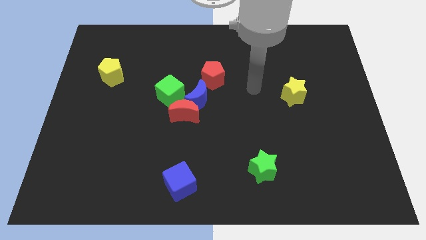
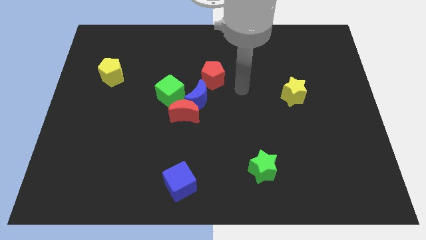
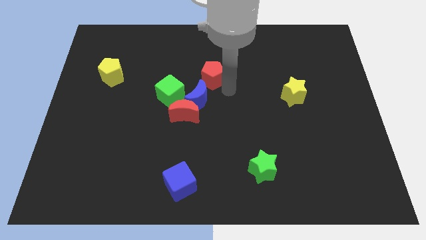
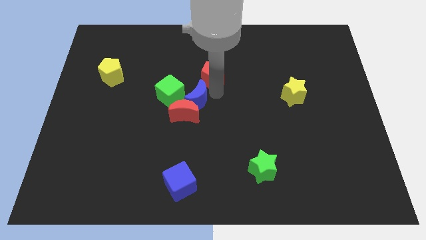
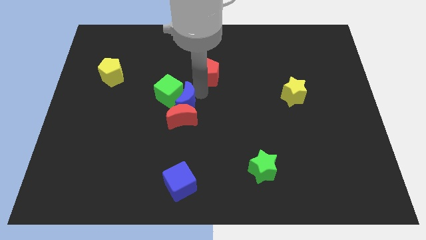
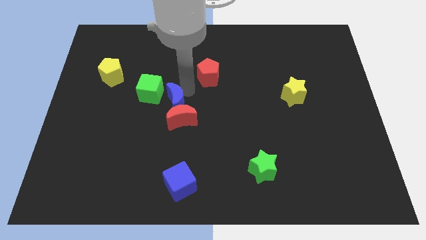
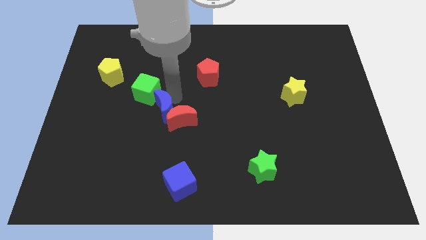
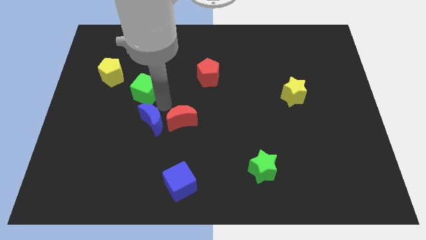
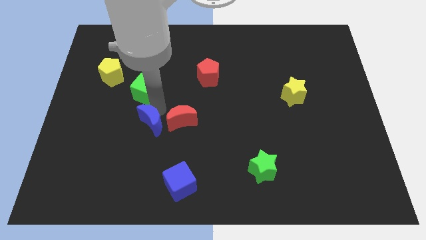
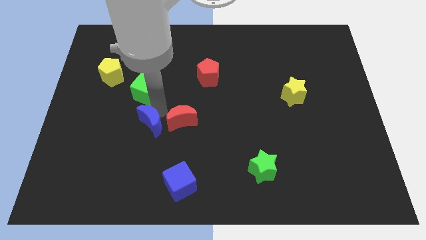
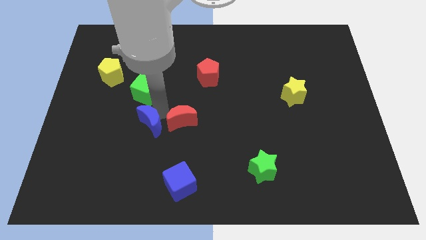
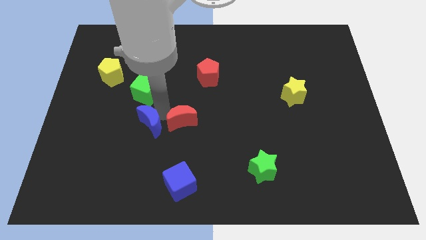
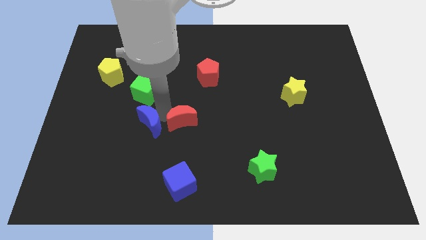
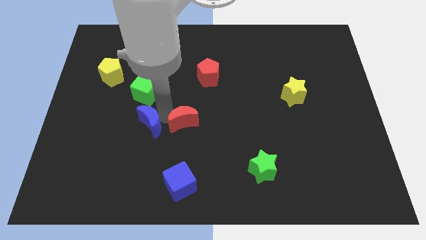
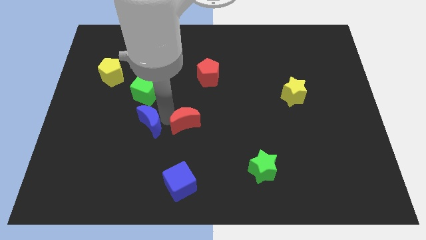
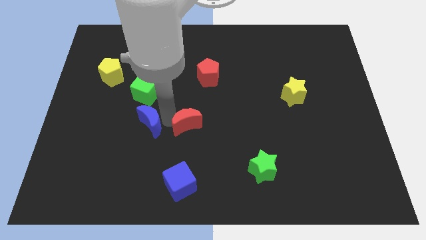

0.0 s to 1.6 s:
pull the red moon apart from the blue moon and green cube

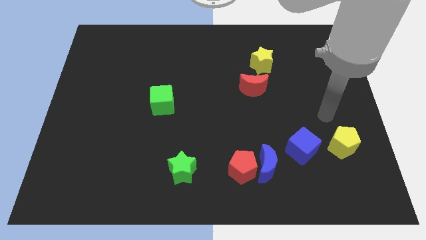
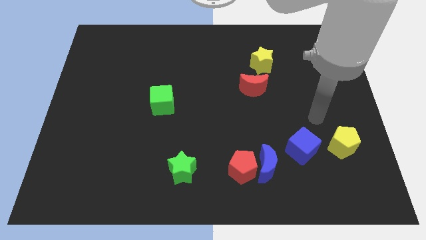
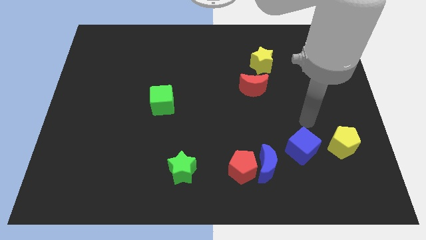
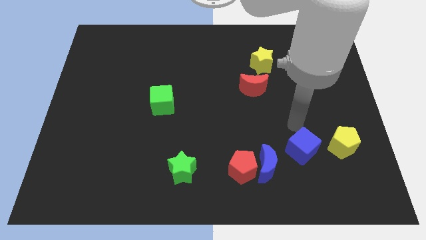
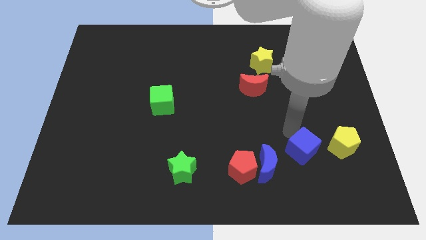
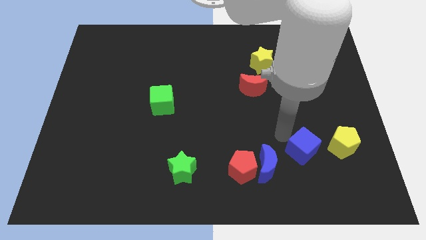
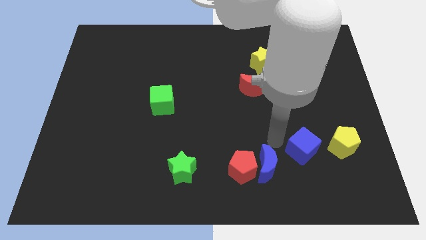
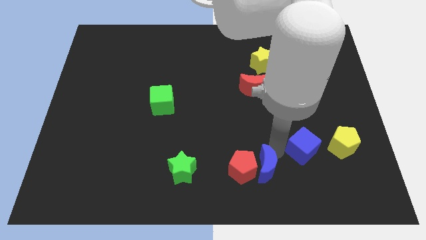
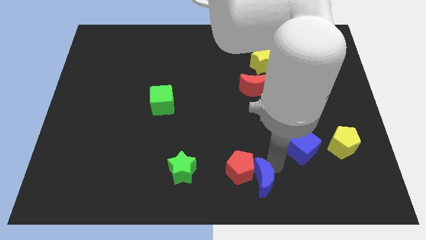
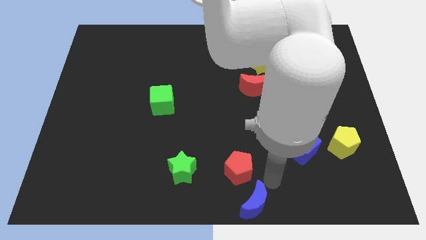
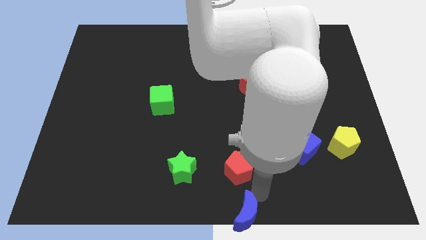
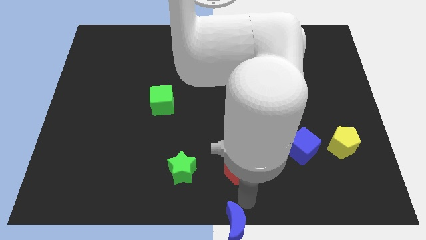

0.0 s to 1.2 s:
separate the red pentagon from the blue moon

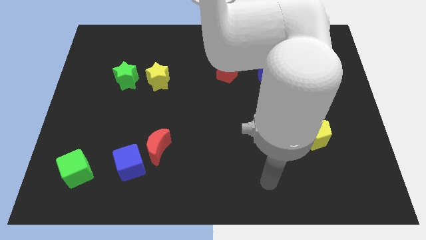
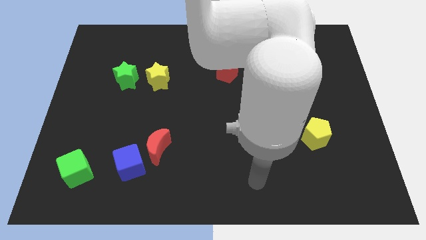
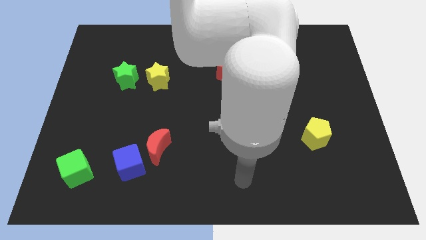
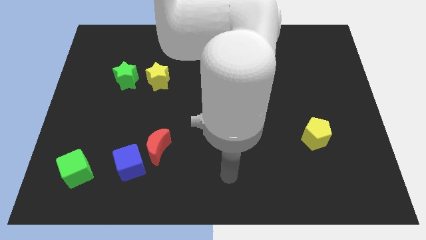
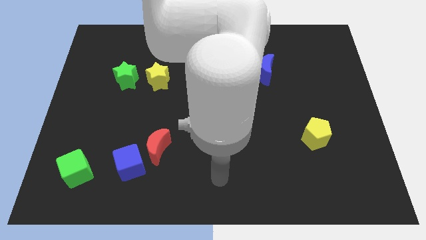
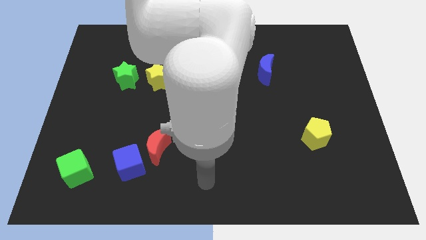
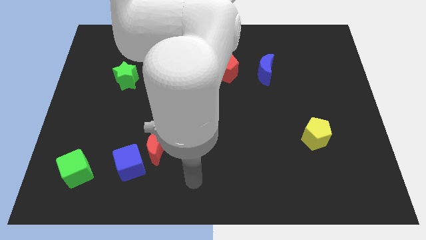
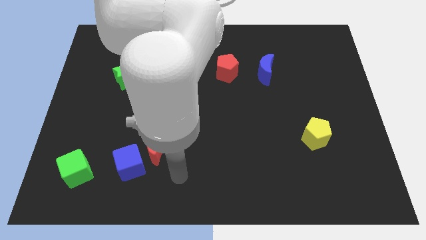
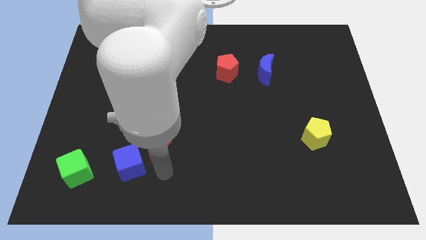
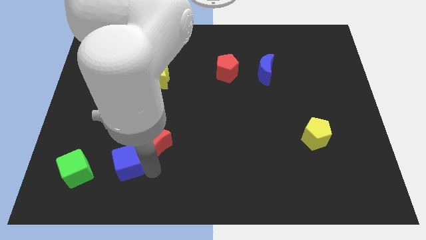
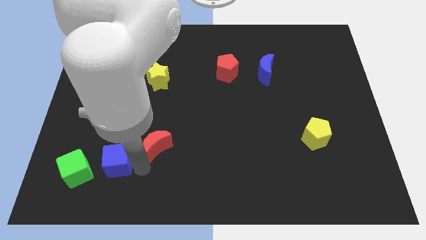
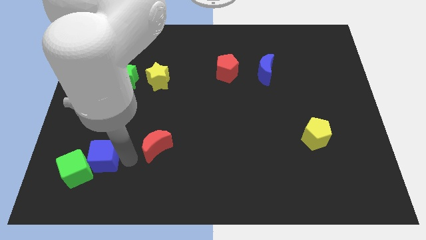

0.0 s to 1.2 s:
pull the red moon apart from the blue cube

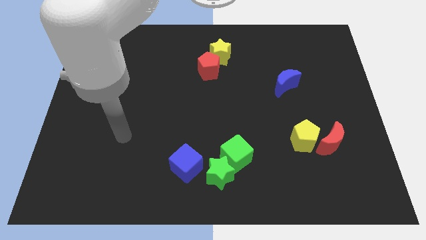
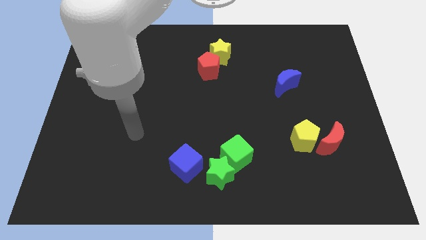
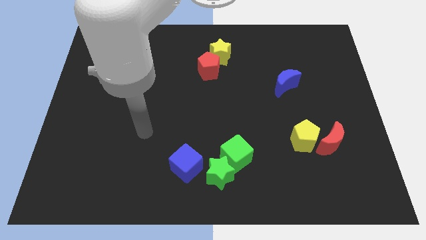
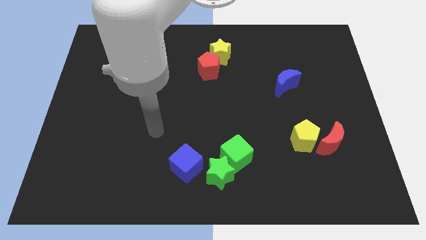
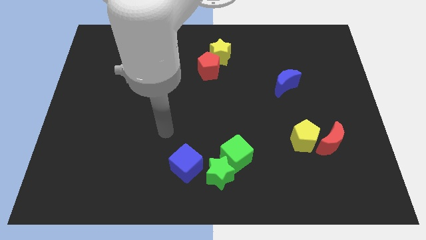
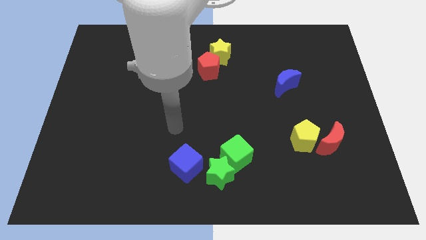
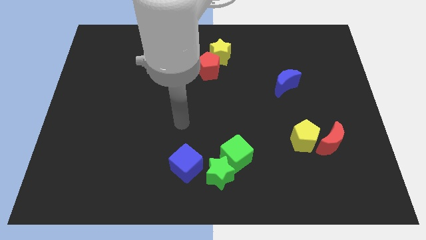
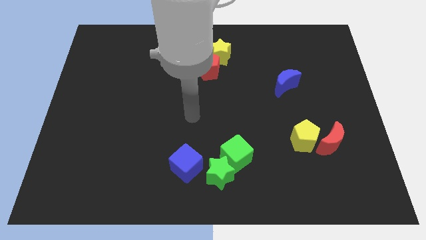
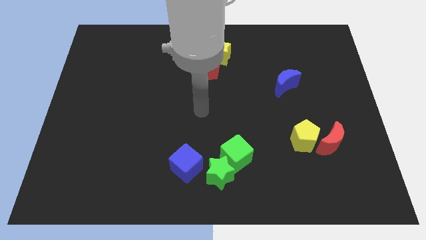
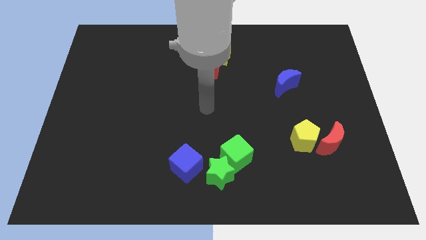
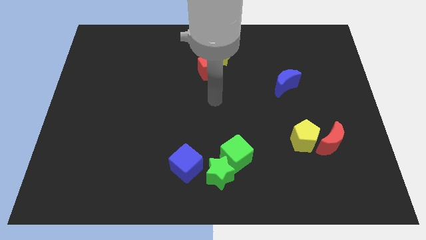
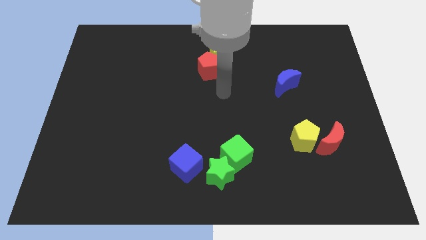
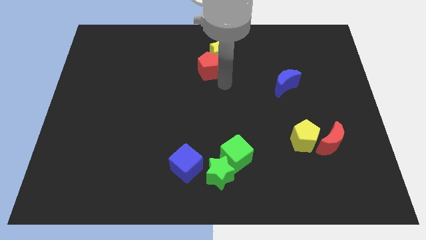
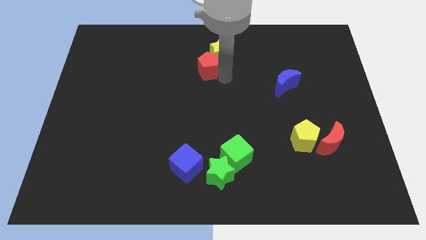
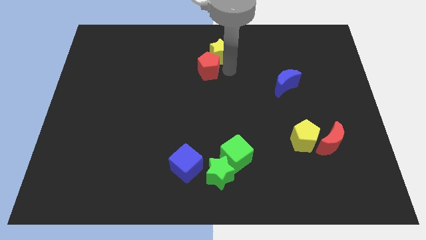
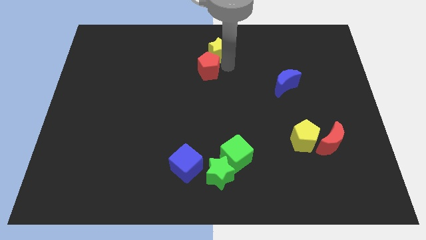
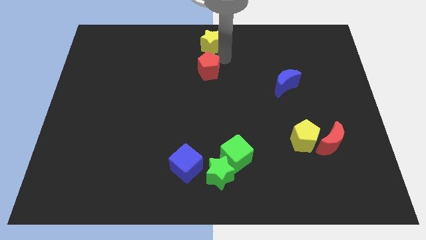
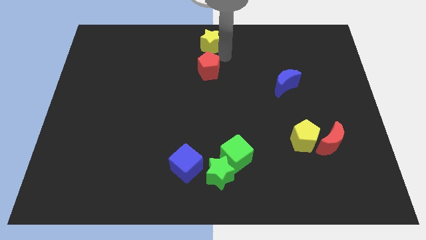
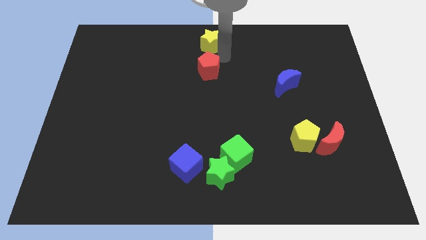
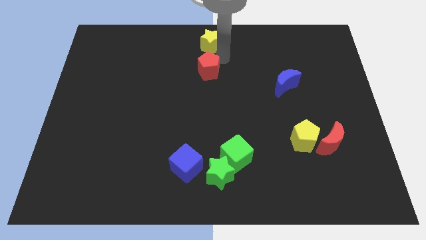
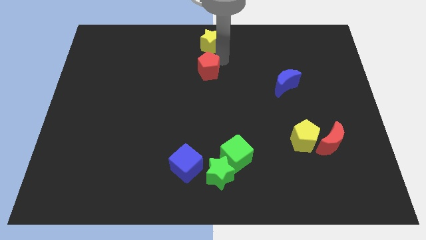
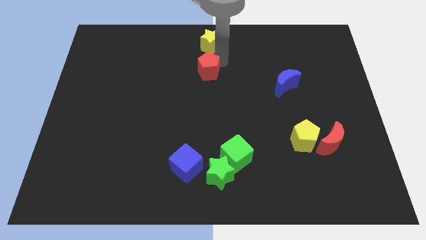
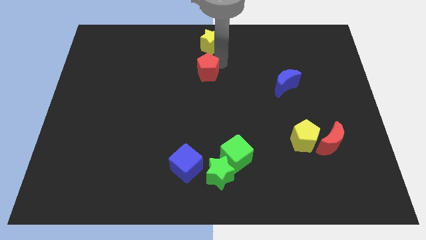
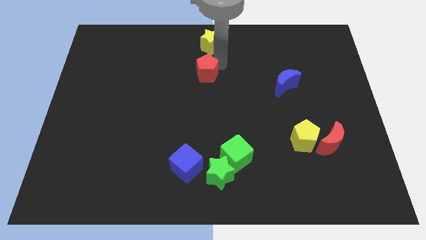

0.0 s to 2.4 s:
move the red pentagon away from the yellow star

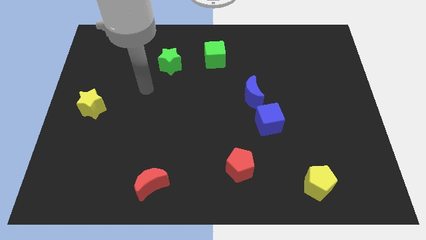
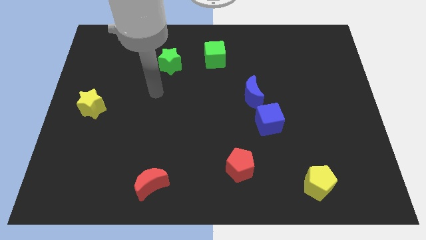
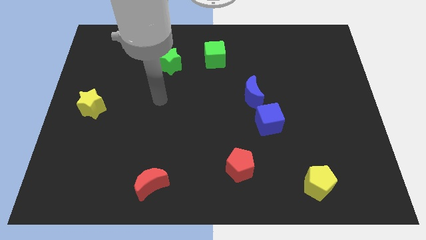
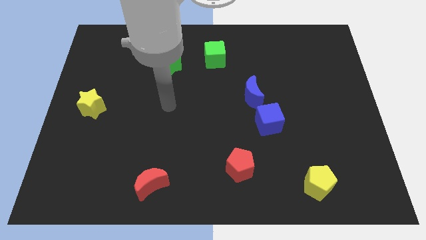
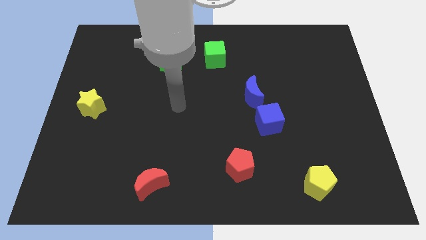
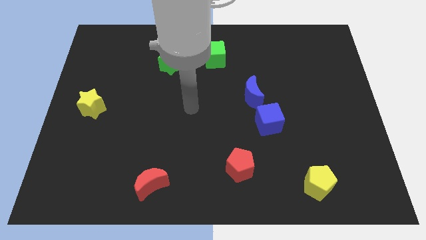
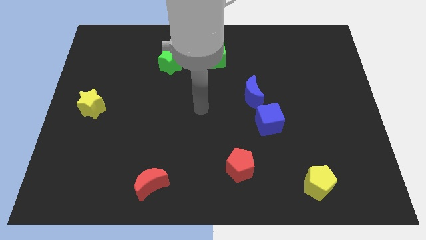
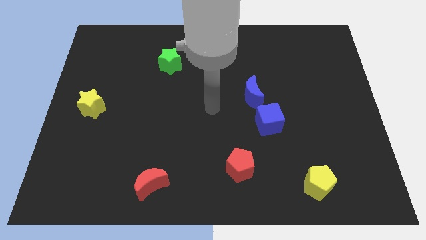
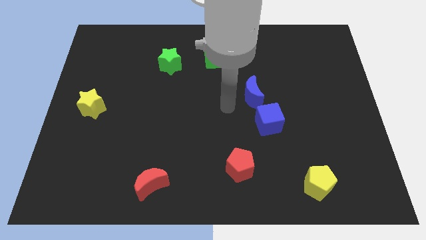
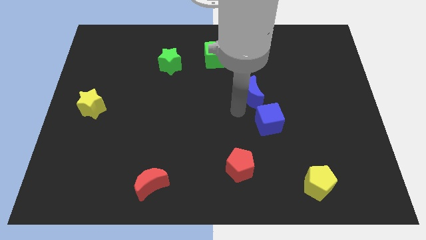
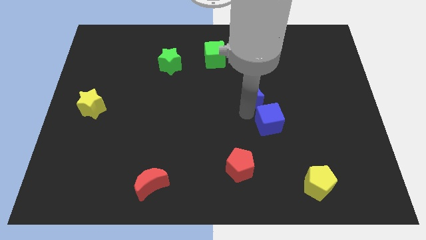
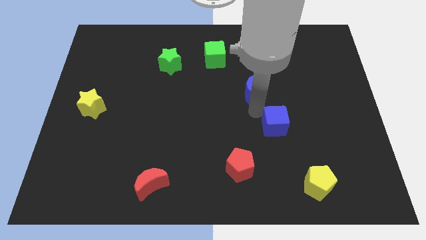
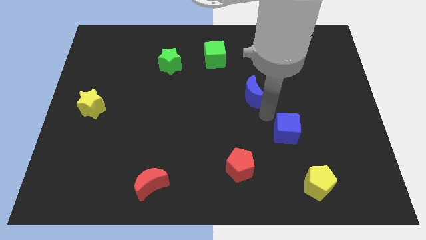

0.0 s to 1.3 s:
pull the blue moon apart from the blue cube

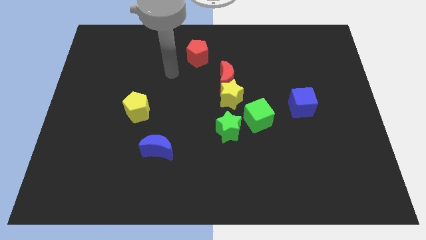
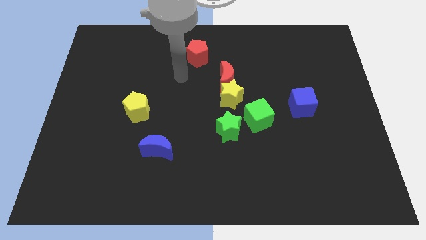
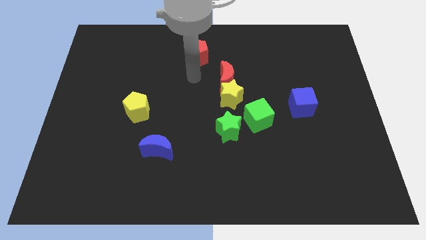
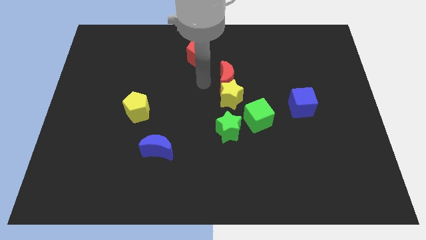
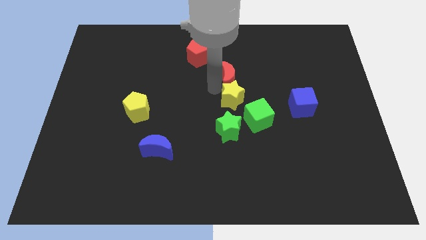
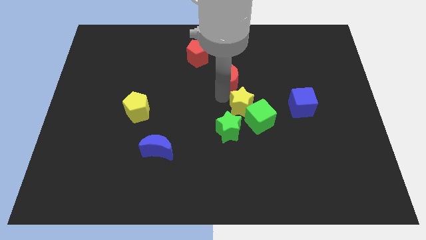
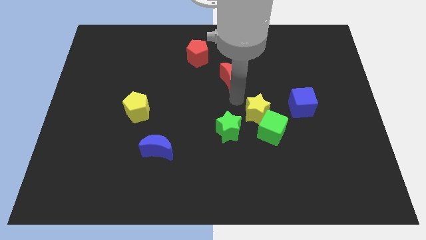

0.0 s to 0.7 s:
separate the red moon from the yellow star

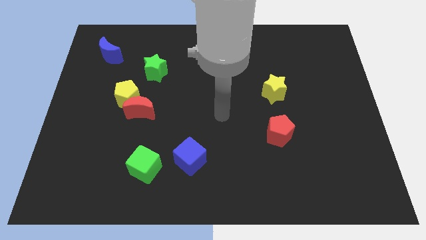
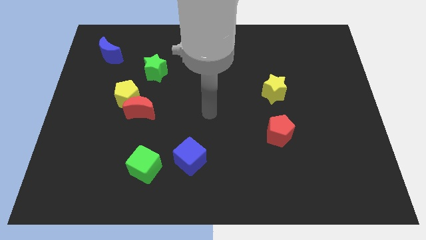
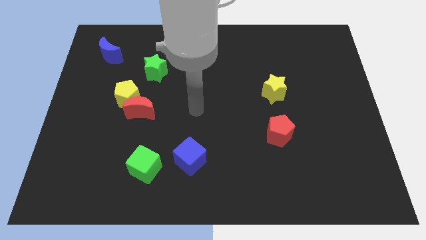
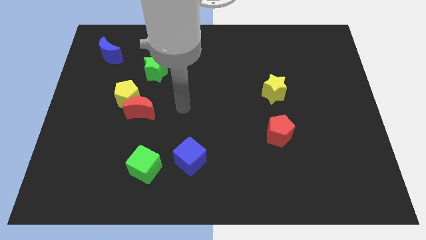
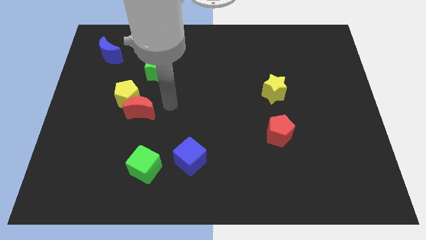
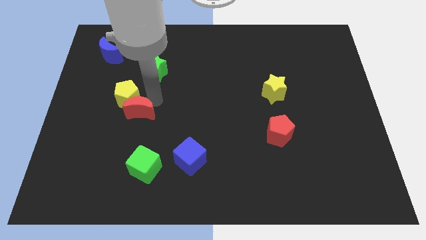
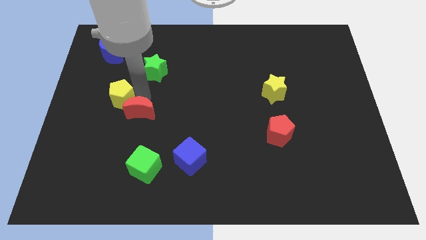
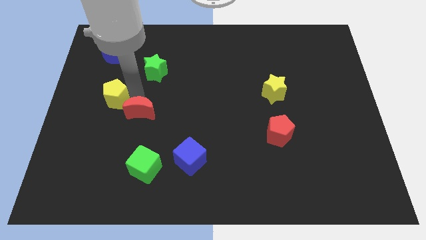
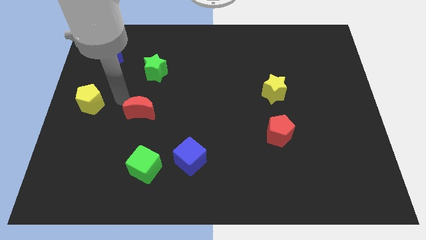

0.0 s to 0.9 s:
pull the red moon apart from the yellow pentagon
